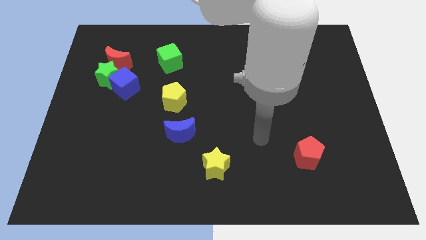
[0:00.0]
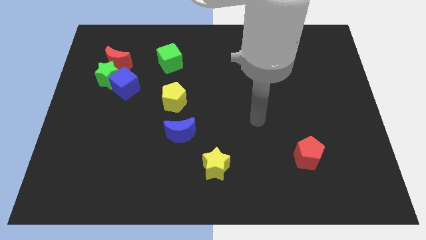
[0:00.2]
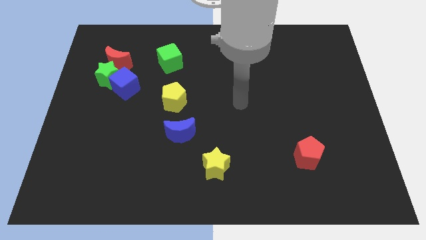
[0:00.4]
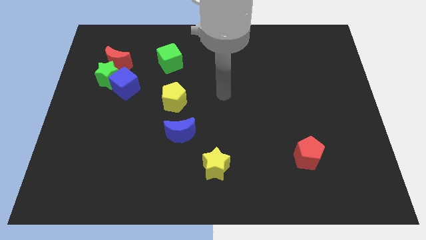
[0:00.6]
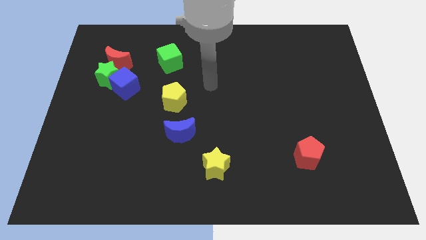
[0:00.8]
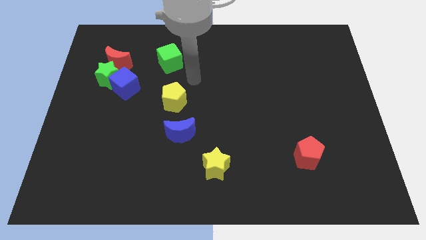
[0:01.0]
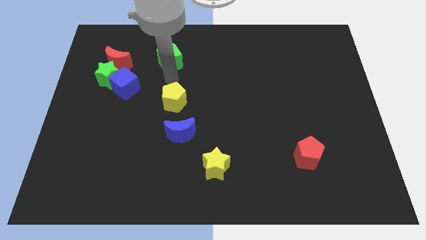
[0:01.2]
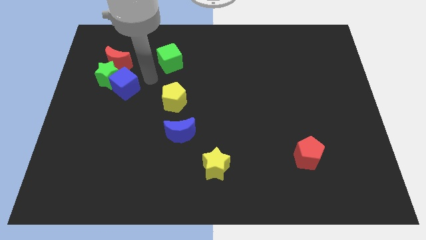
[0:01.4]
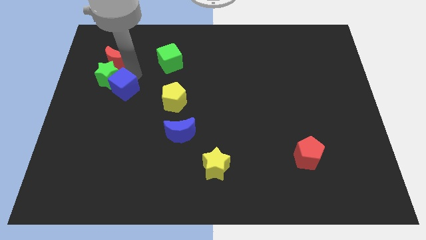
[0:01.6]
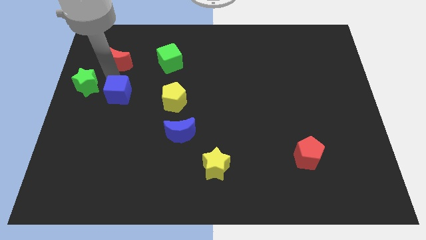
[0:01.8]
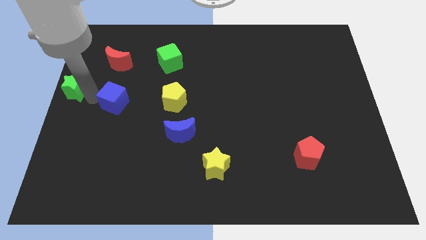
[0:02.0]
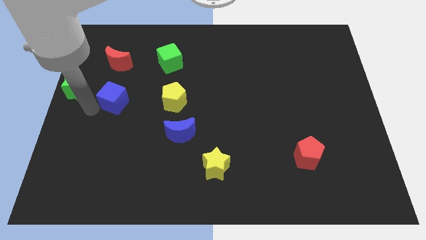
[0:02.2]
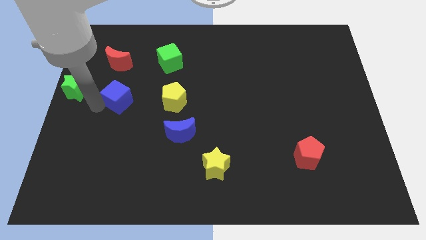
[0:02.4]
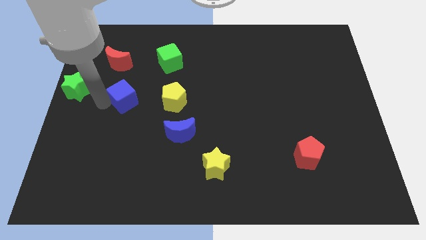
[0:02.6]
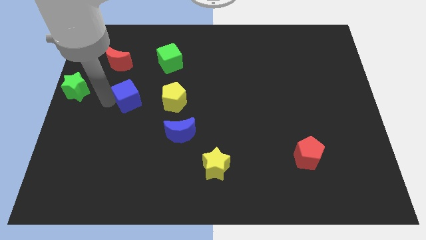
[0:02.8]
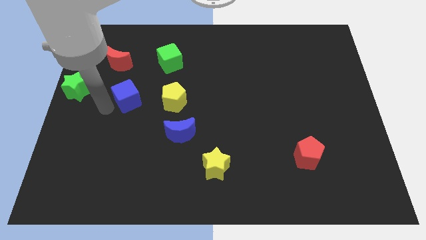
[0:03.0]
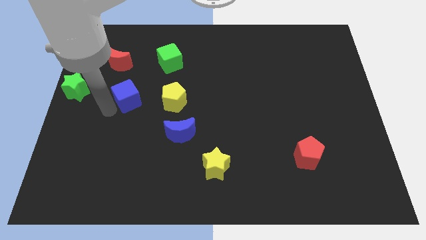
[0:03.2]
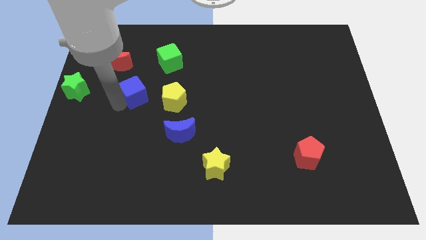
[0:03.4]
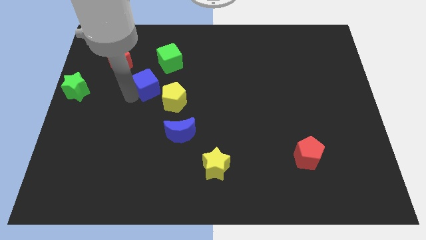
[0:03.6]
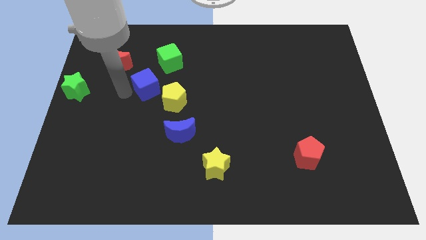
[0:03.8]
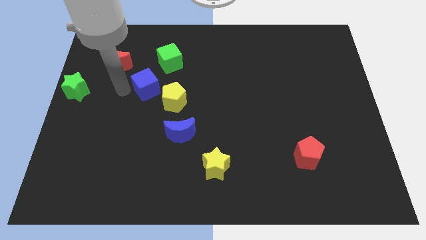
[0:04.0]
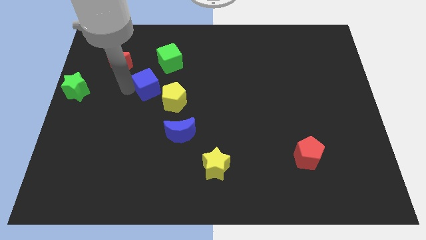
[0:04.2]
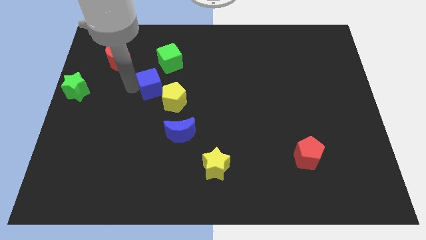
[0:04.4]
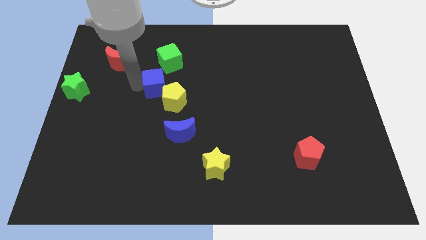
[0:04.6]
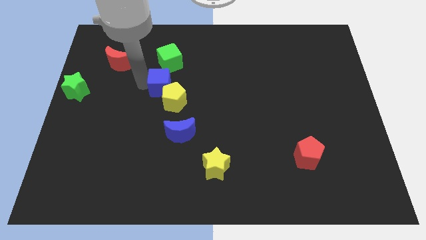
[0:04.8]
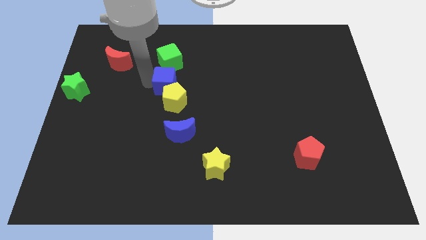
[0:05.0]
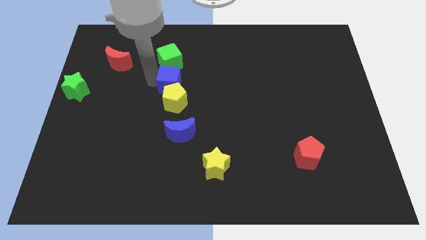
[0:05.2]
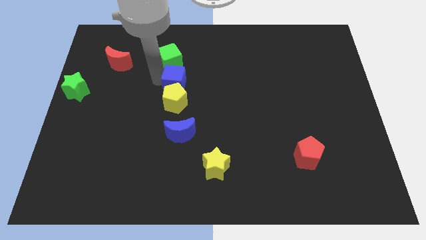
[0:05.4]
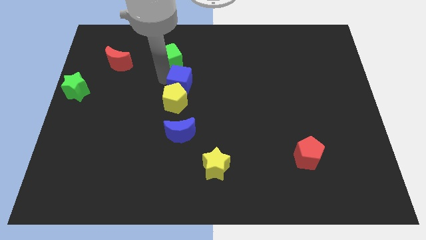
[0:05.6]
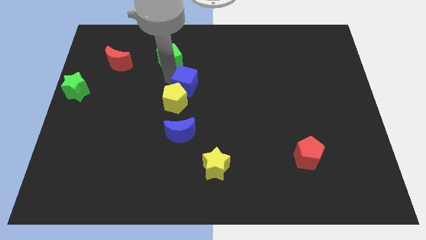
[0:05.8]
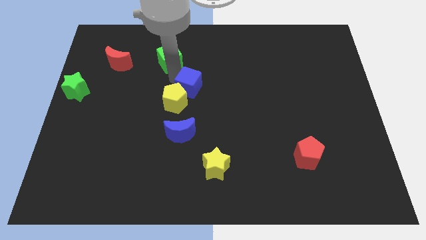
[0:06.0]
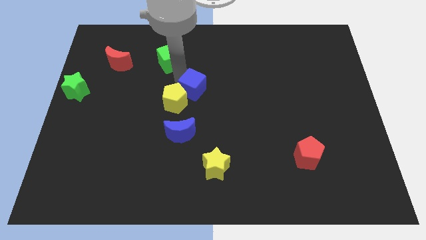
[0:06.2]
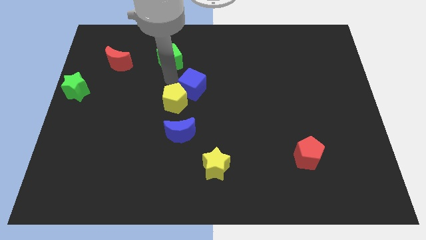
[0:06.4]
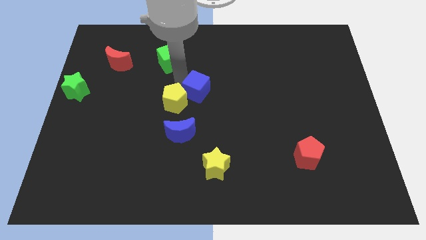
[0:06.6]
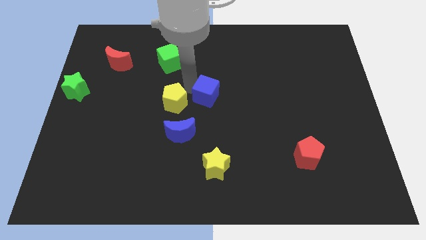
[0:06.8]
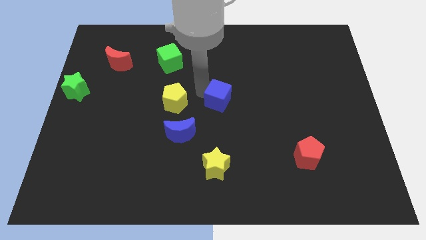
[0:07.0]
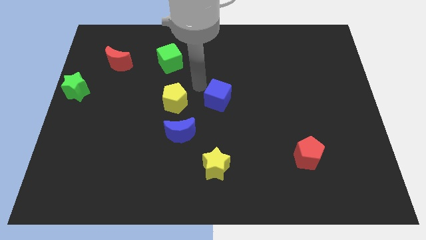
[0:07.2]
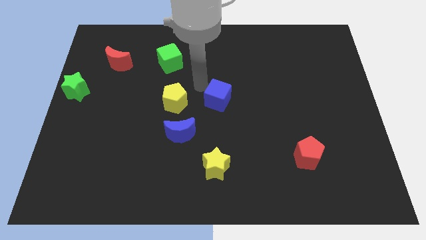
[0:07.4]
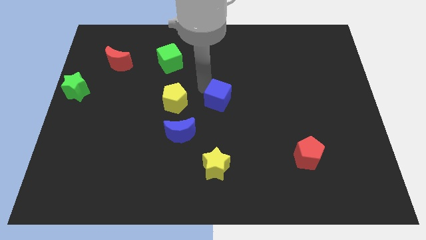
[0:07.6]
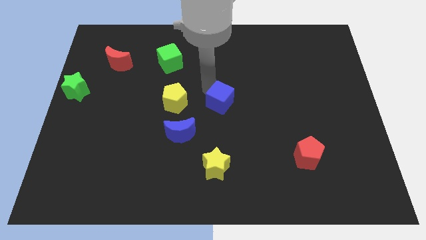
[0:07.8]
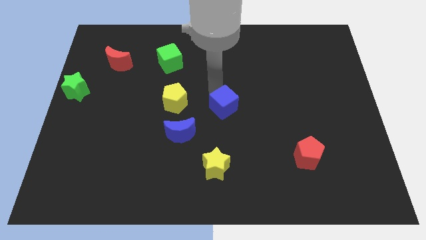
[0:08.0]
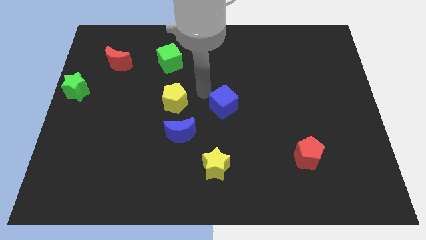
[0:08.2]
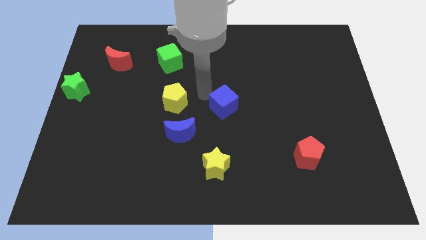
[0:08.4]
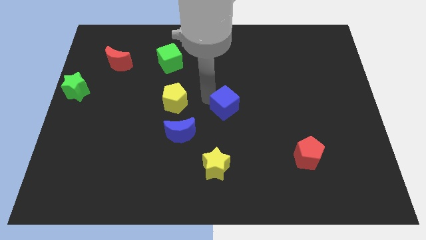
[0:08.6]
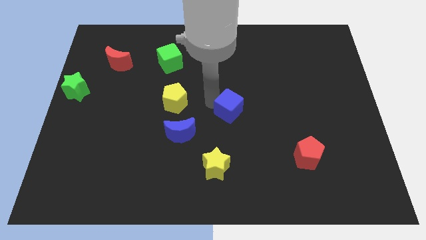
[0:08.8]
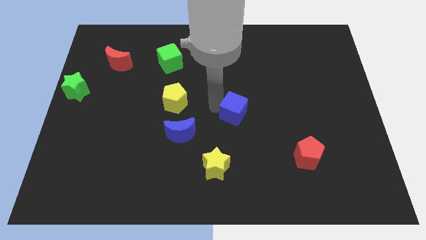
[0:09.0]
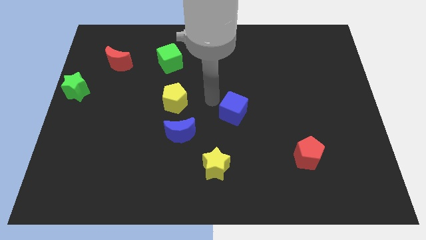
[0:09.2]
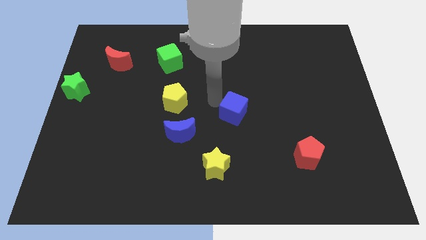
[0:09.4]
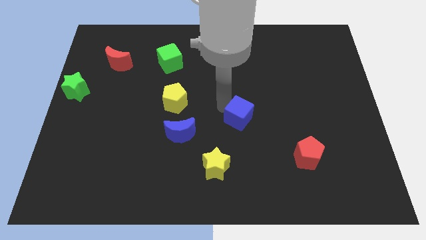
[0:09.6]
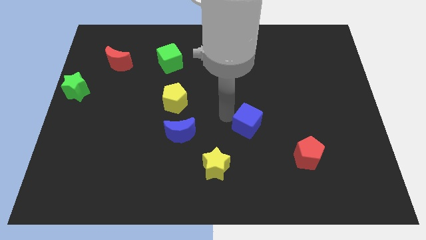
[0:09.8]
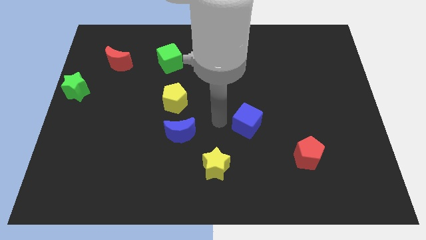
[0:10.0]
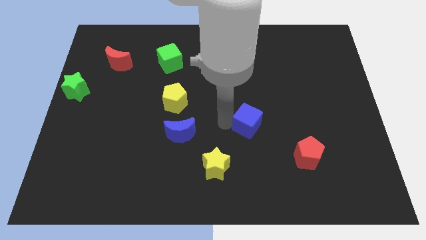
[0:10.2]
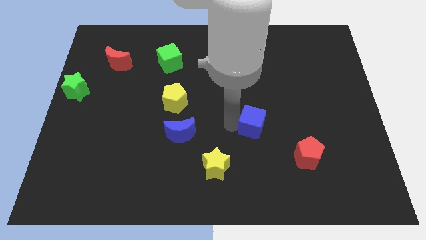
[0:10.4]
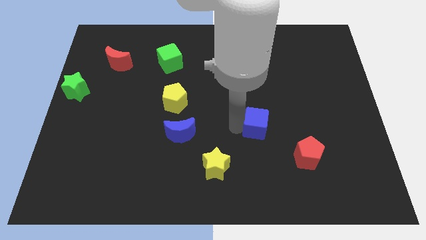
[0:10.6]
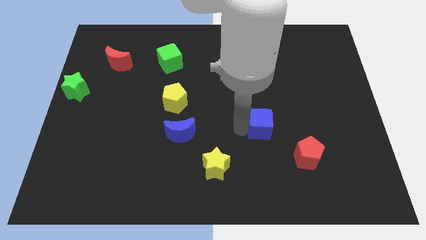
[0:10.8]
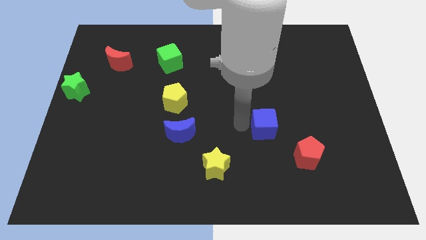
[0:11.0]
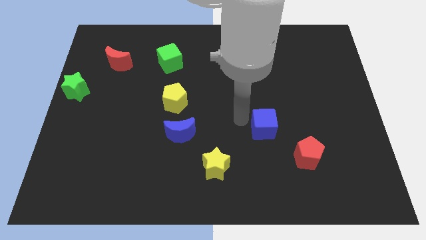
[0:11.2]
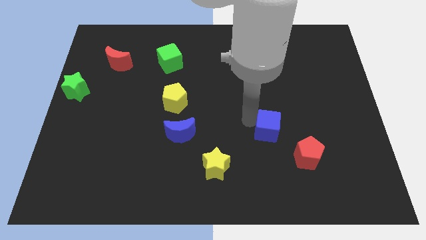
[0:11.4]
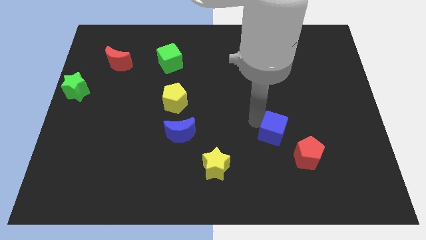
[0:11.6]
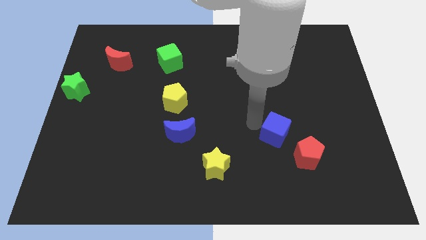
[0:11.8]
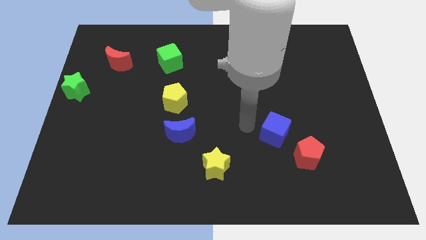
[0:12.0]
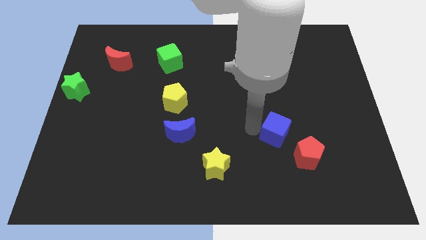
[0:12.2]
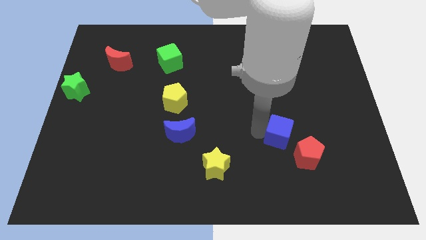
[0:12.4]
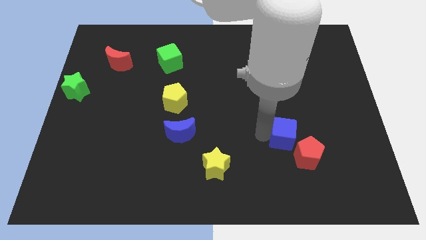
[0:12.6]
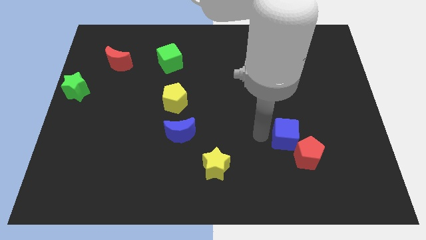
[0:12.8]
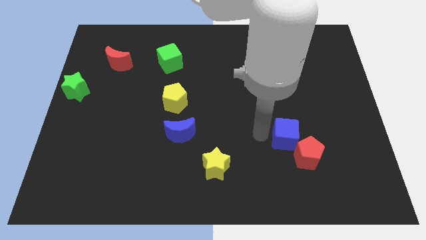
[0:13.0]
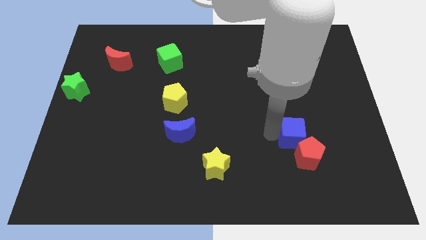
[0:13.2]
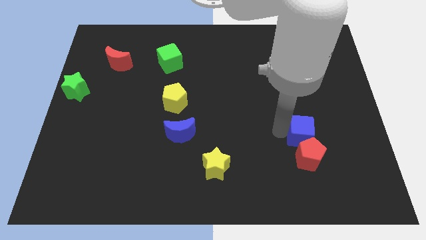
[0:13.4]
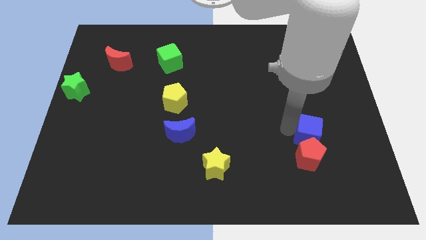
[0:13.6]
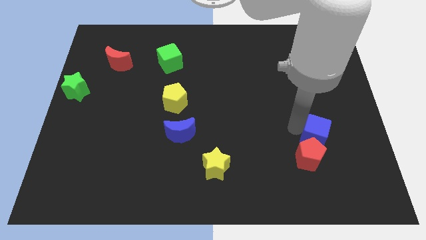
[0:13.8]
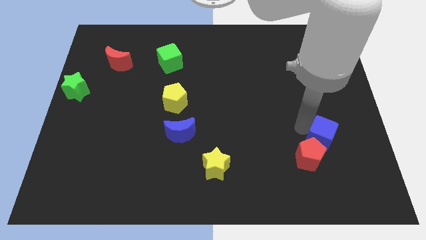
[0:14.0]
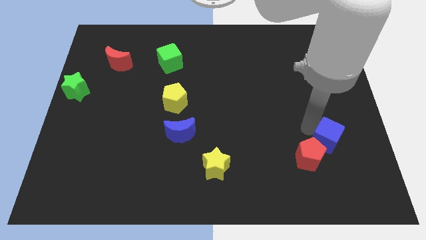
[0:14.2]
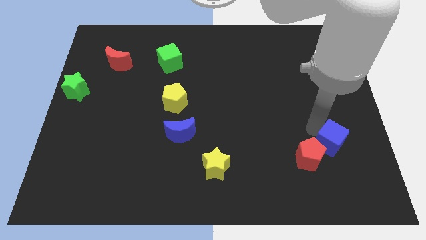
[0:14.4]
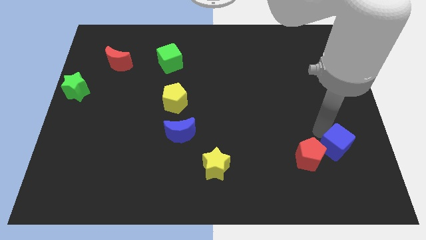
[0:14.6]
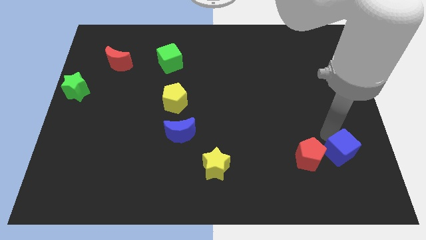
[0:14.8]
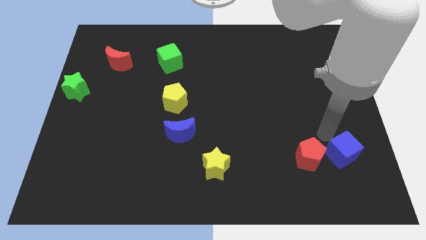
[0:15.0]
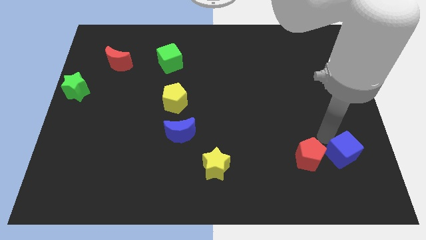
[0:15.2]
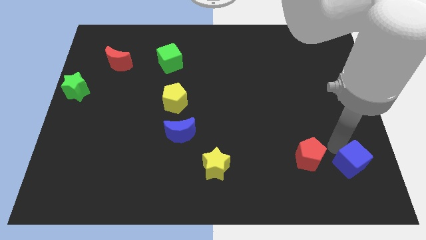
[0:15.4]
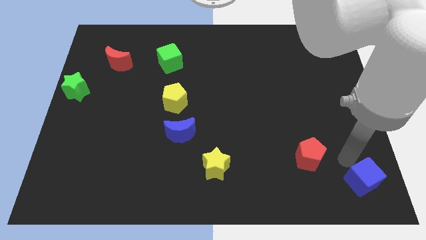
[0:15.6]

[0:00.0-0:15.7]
put the blue cube to the bottom right corner
